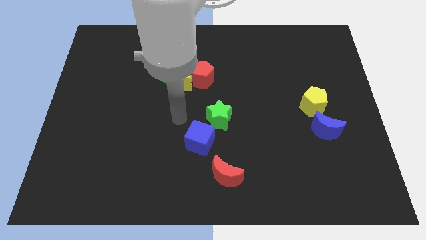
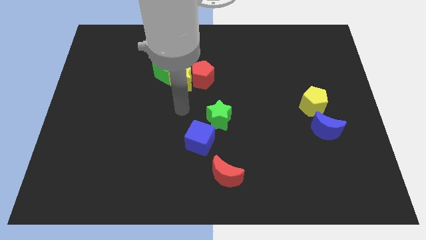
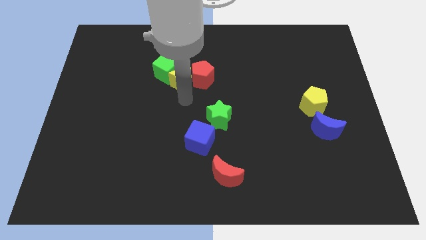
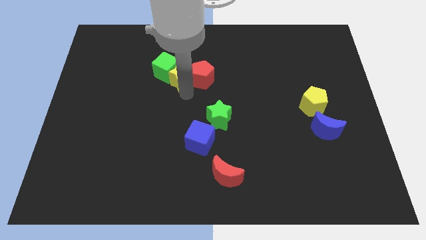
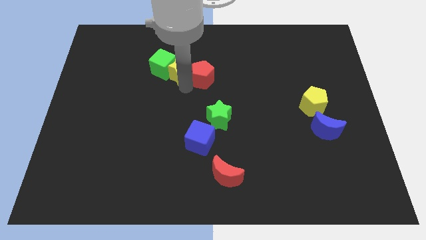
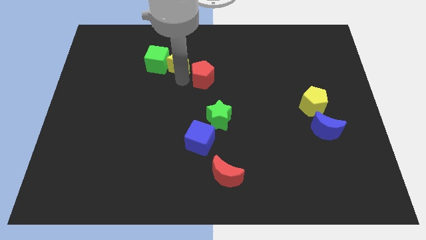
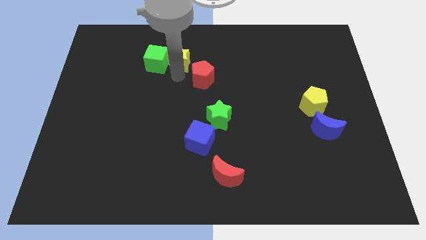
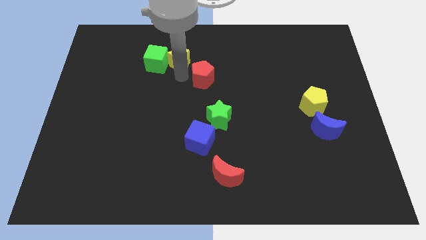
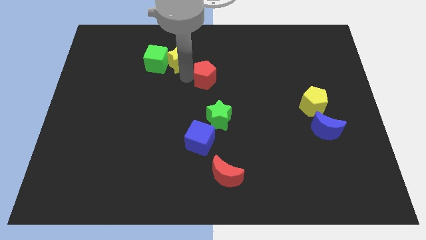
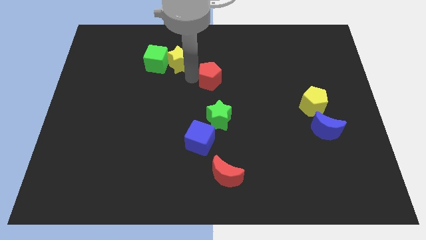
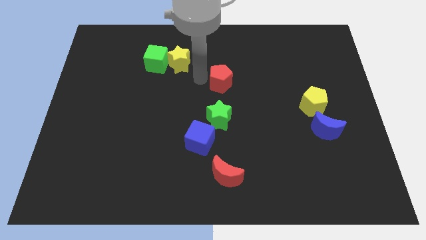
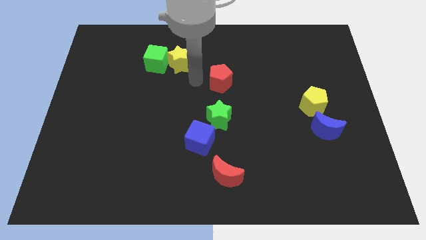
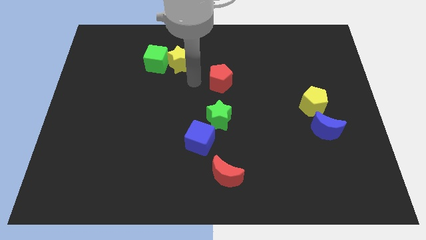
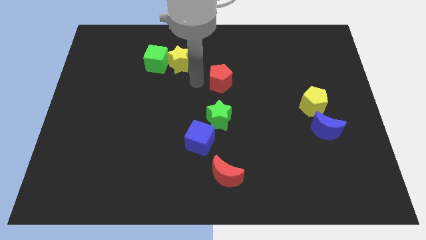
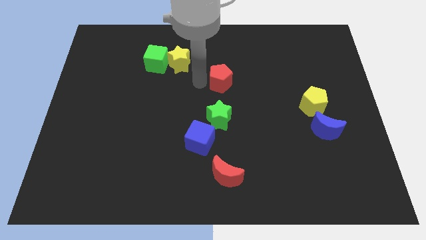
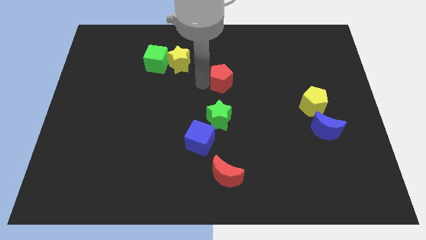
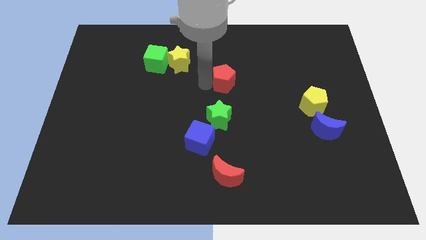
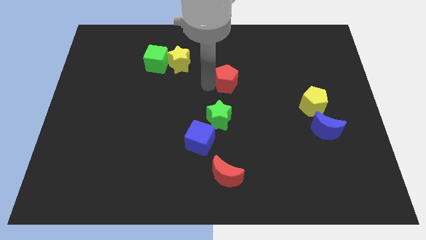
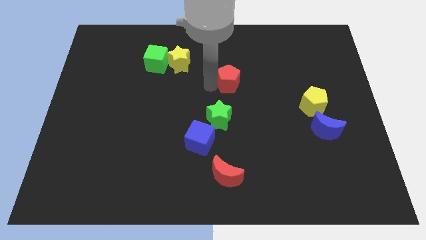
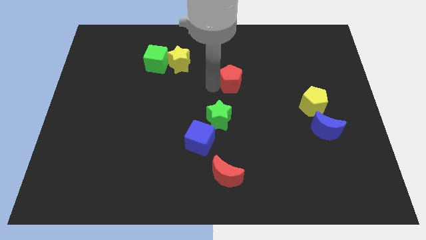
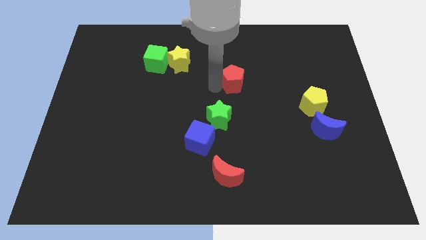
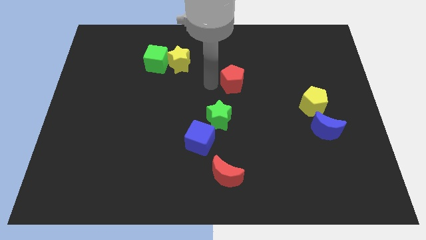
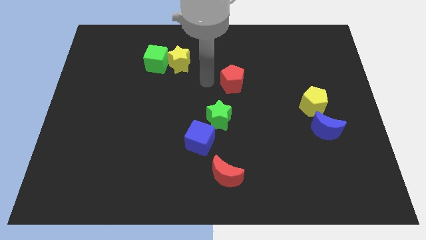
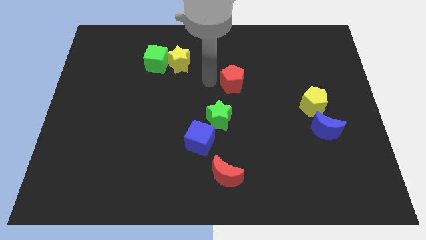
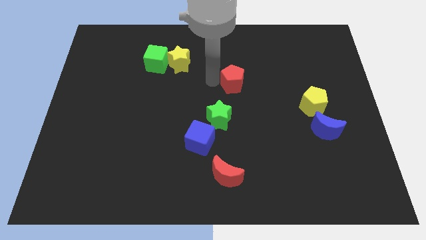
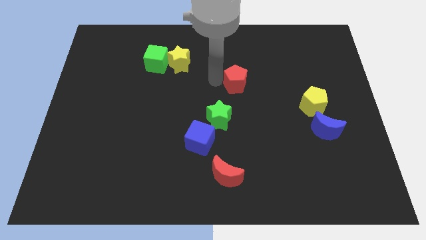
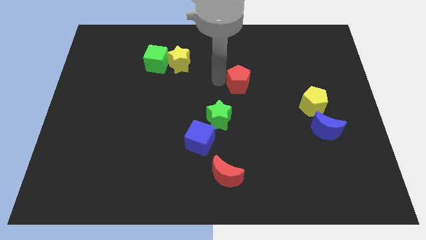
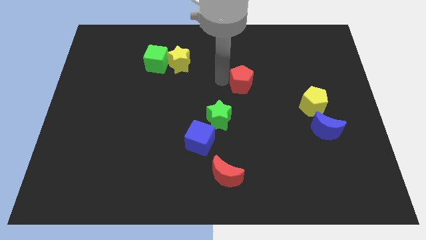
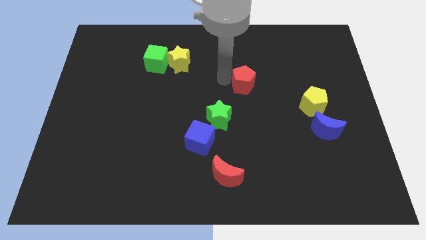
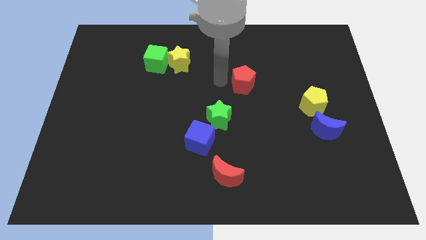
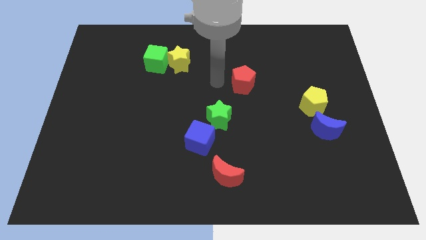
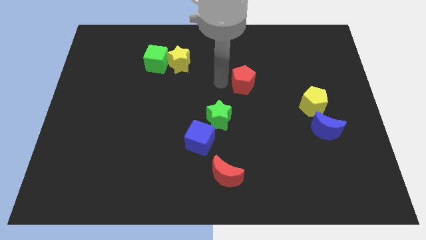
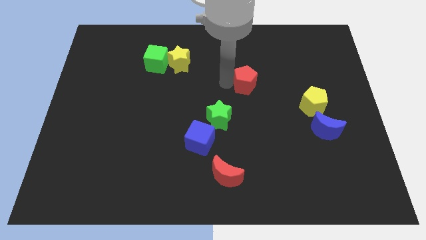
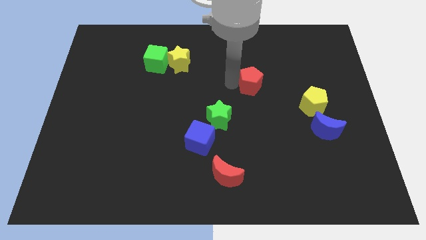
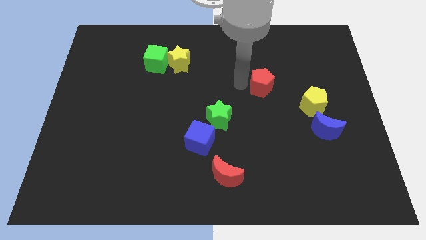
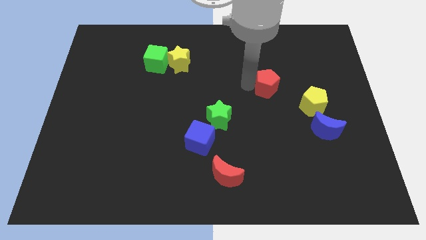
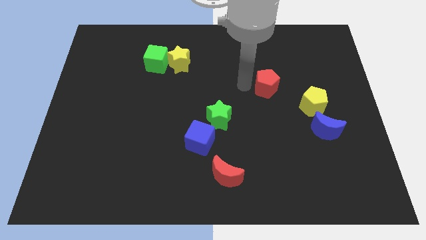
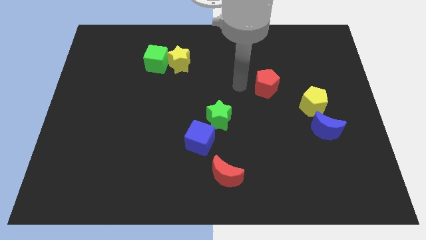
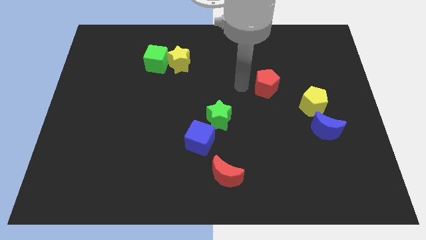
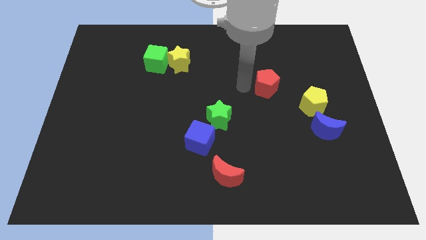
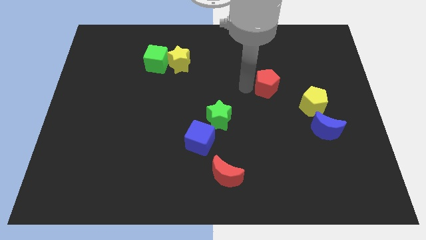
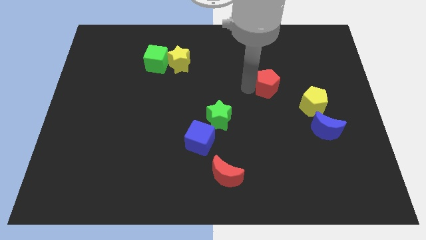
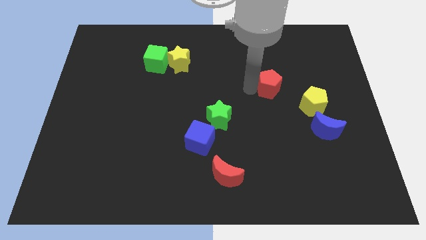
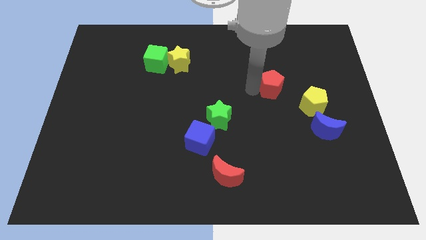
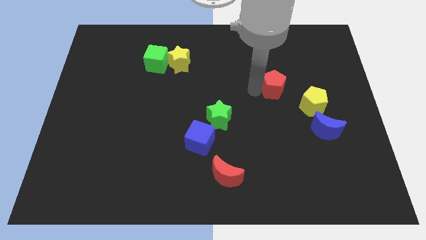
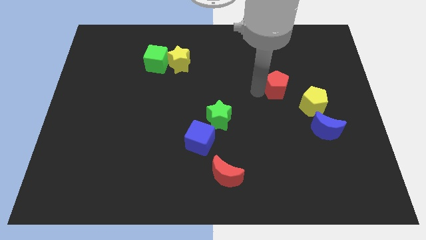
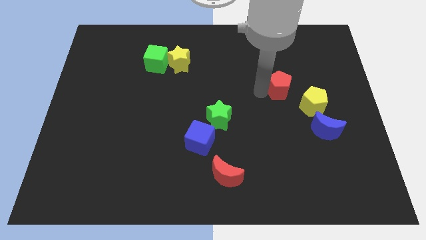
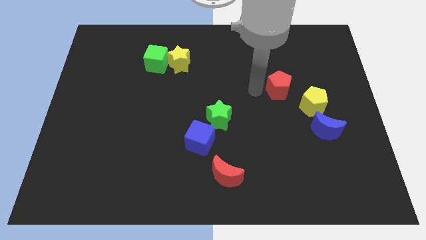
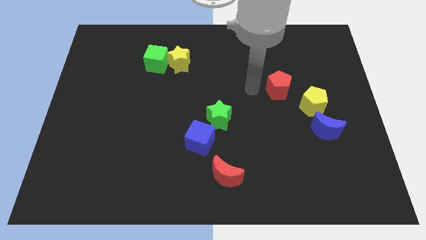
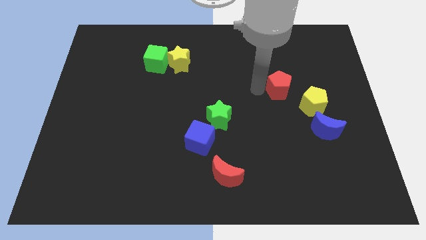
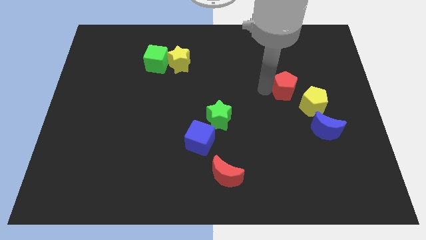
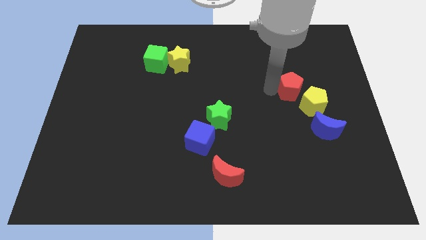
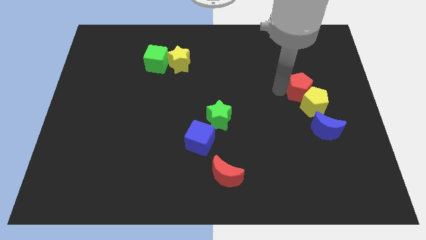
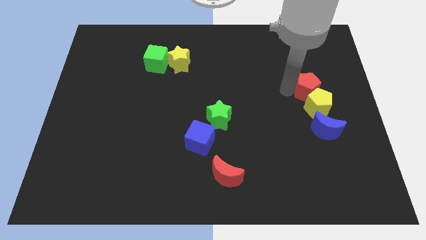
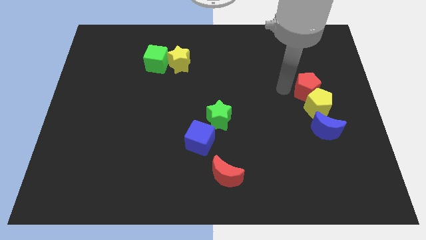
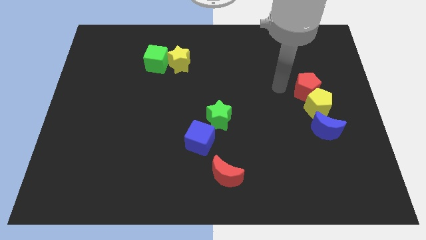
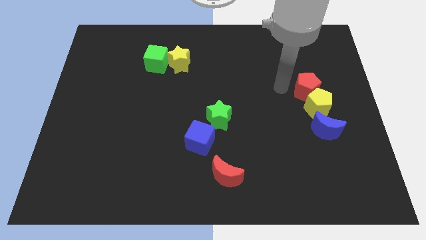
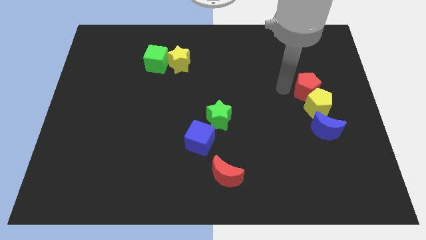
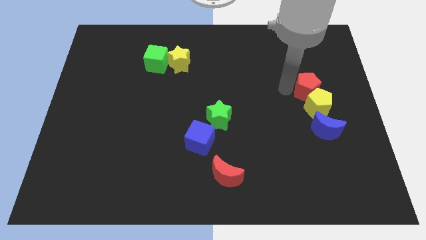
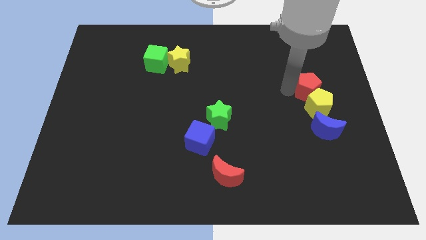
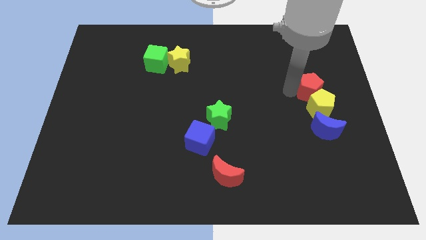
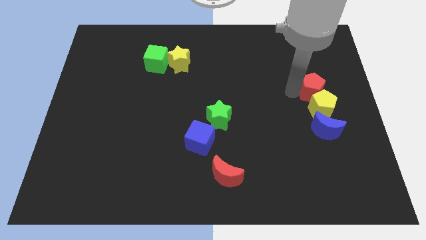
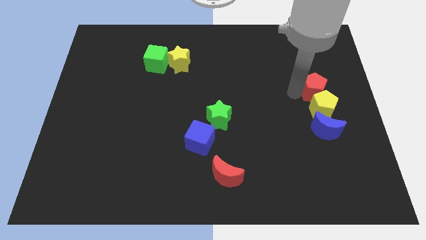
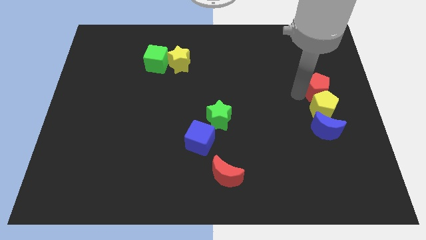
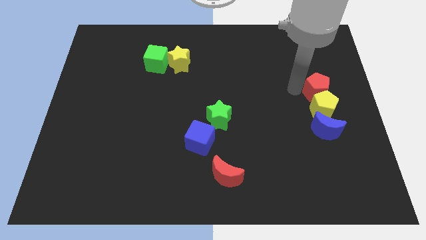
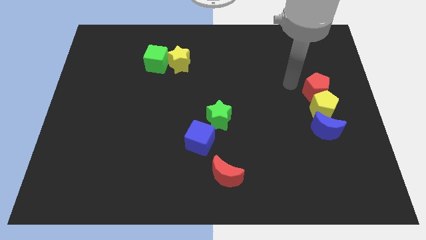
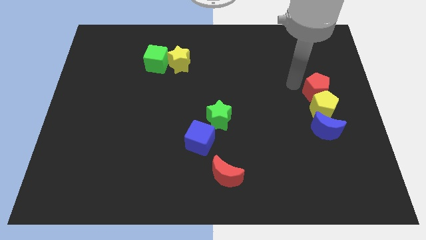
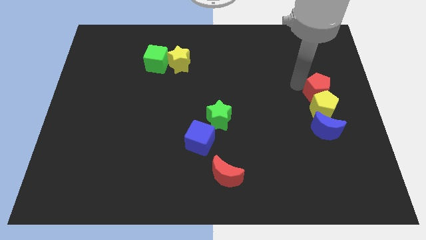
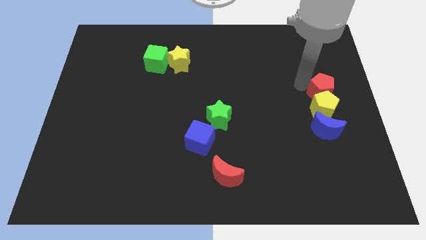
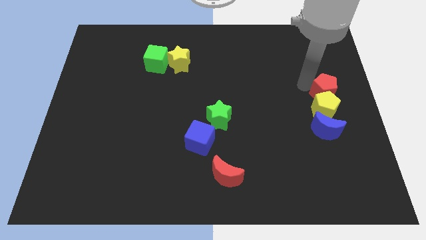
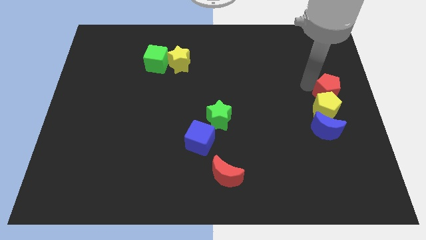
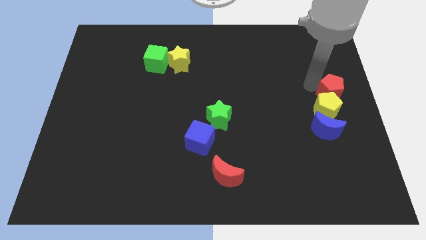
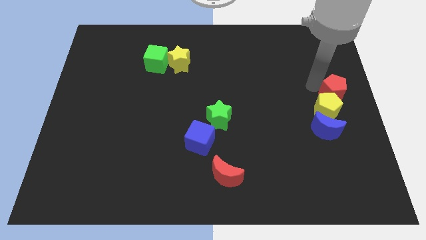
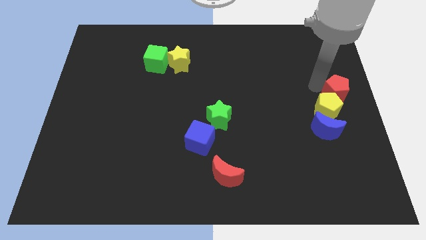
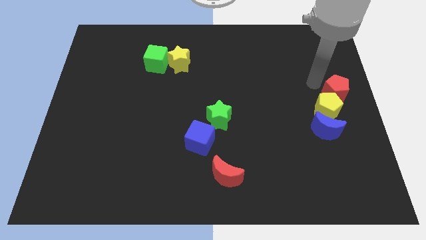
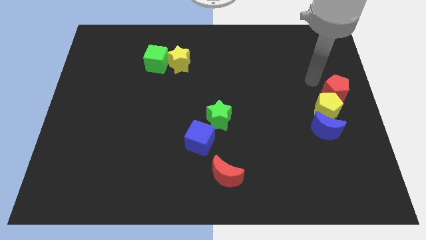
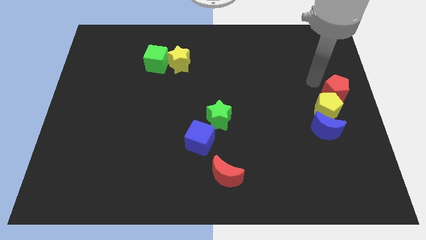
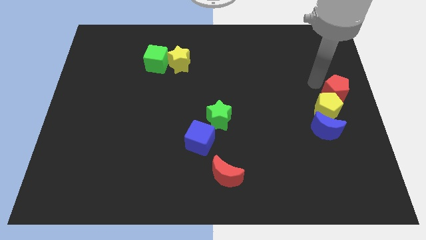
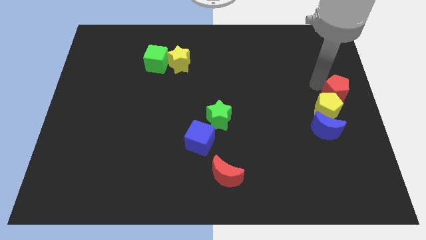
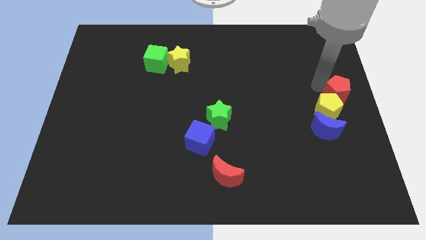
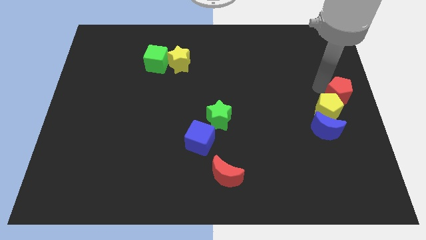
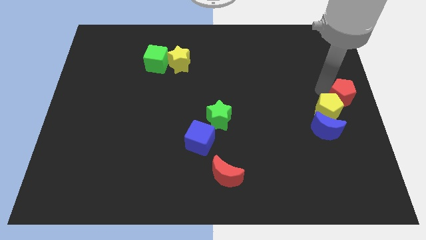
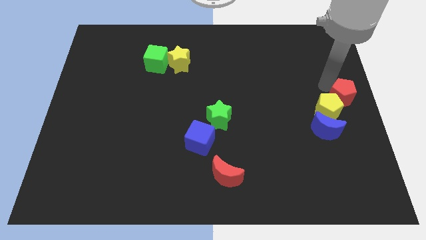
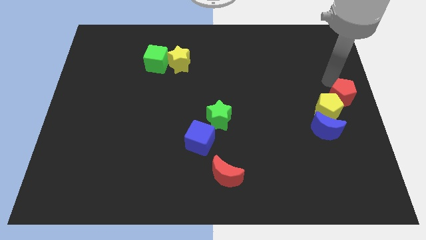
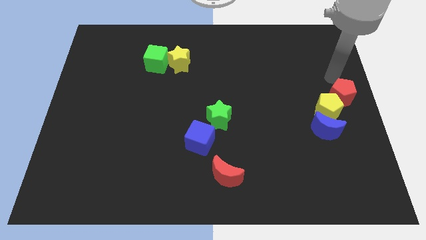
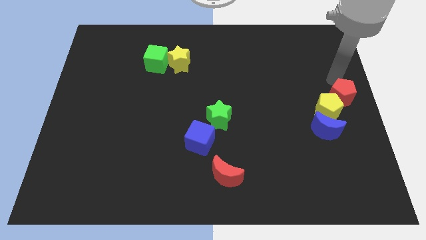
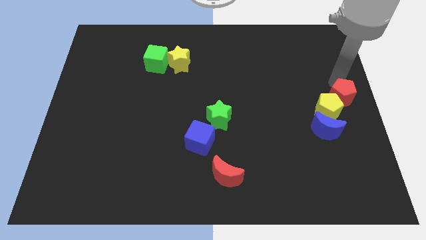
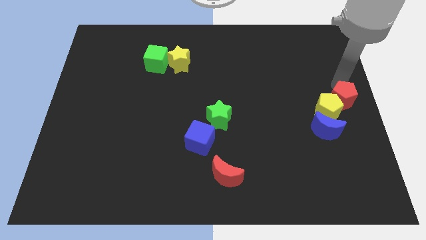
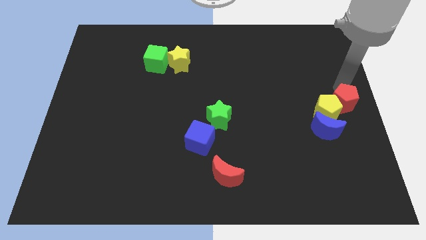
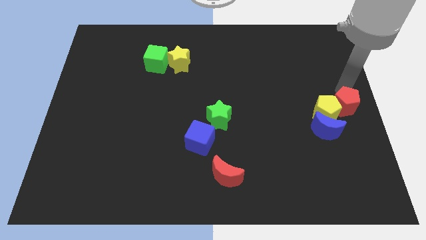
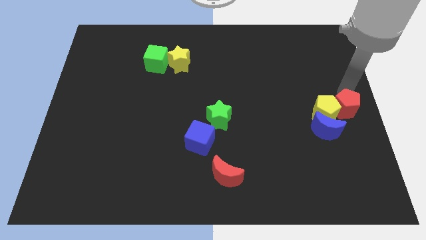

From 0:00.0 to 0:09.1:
push the red pentagon to the bottom right side of the yellow pentagon
